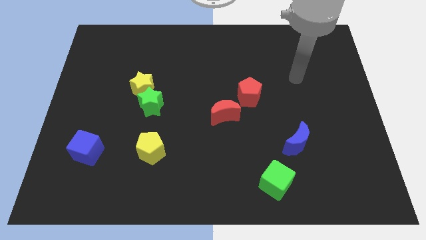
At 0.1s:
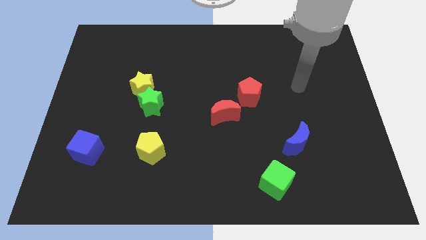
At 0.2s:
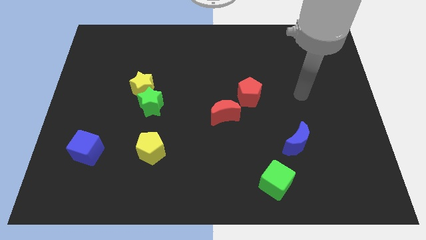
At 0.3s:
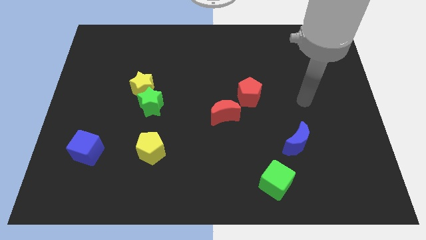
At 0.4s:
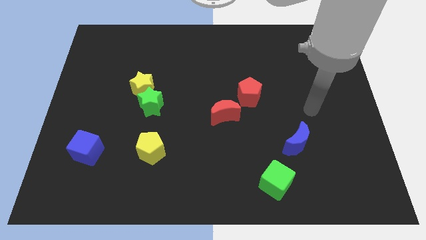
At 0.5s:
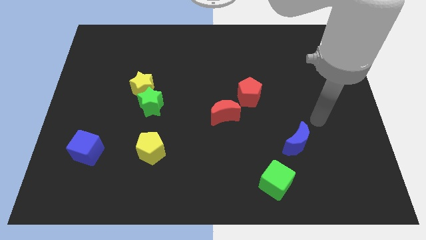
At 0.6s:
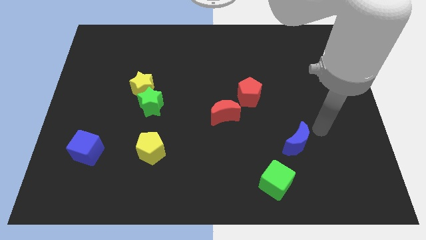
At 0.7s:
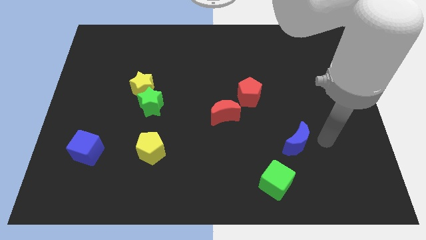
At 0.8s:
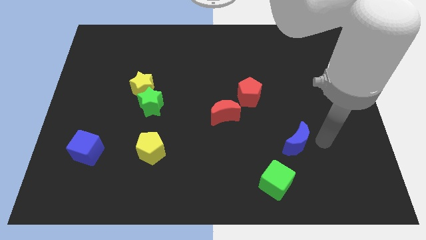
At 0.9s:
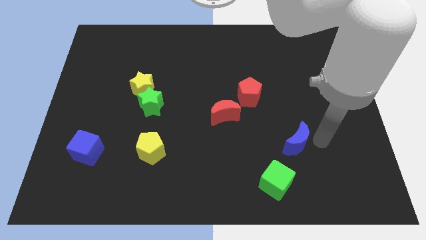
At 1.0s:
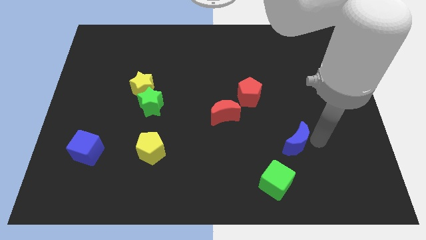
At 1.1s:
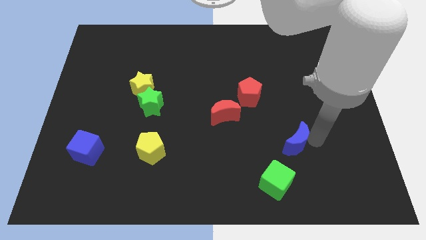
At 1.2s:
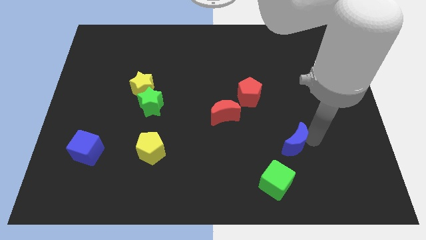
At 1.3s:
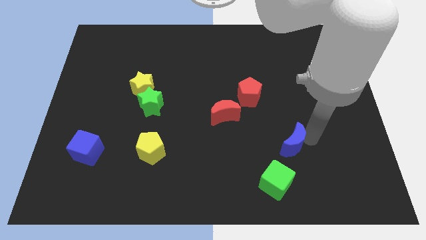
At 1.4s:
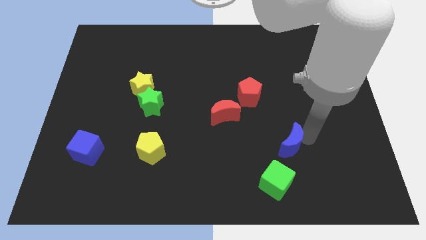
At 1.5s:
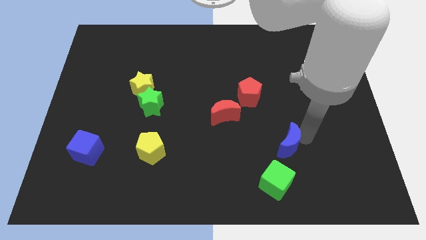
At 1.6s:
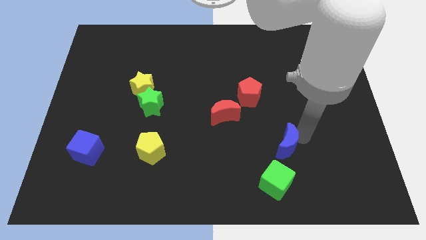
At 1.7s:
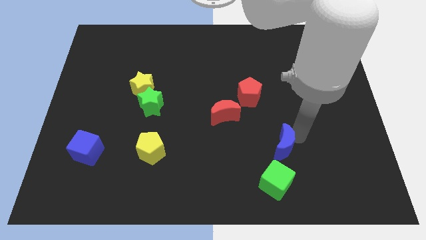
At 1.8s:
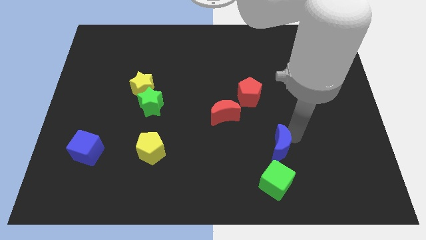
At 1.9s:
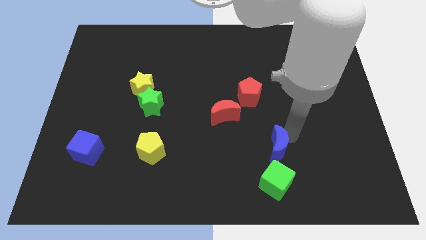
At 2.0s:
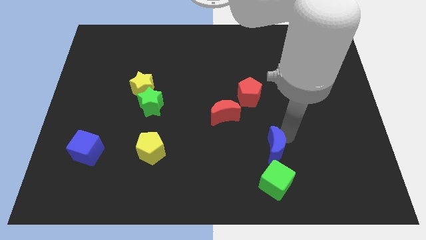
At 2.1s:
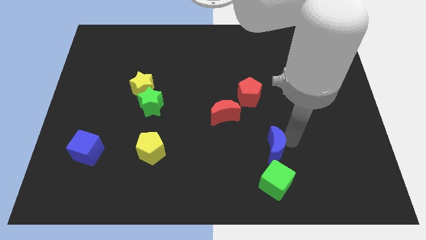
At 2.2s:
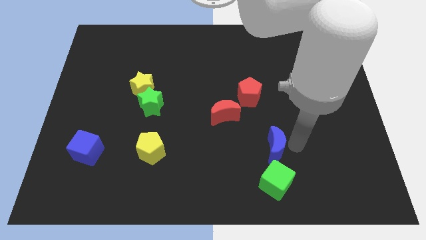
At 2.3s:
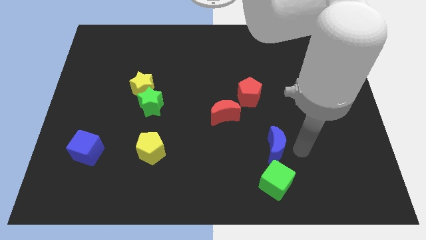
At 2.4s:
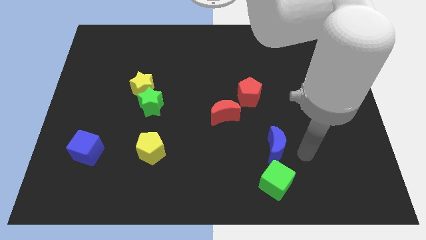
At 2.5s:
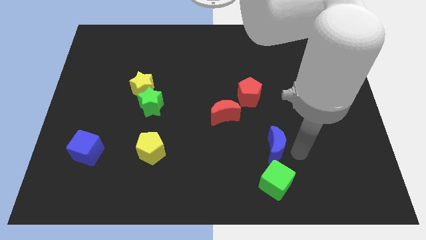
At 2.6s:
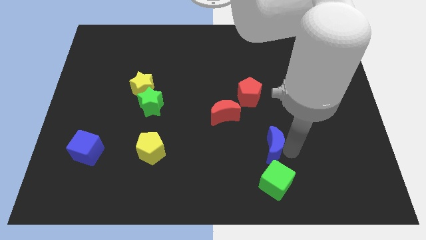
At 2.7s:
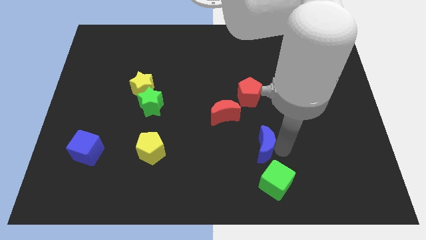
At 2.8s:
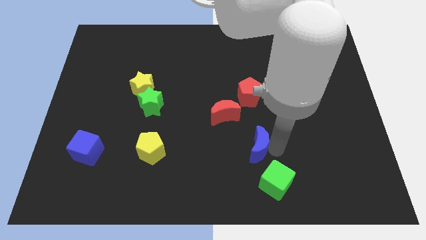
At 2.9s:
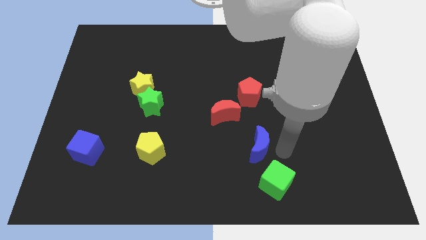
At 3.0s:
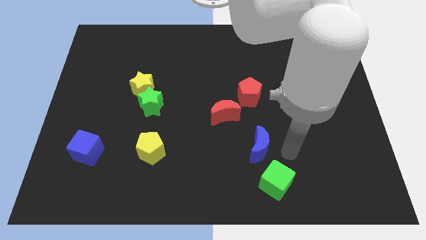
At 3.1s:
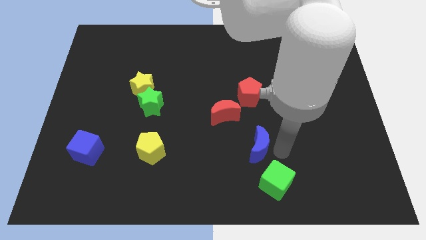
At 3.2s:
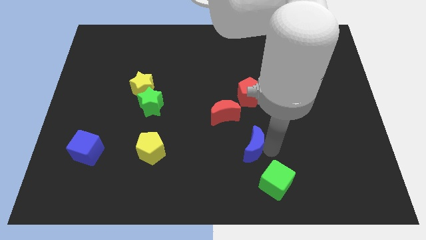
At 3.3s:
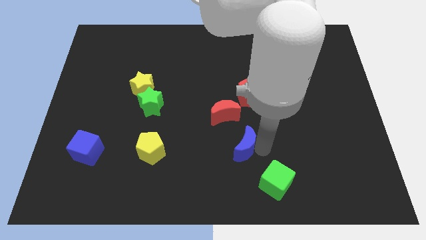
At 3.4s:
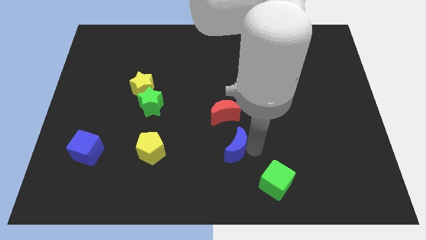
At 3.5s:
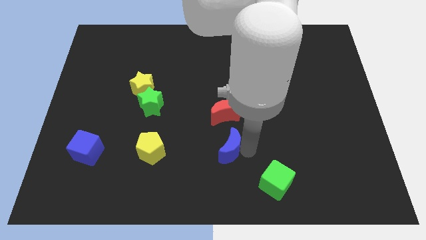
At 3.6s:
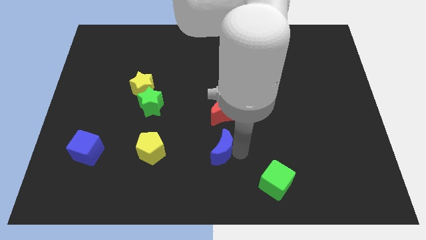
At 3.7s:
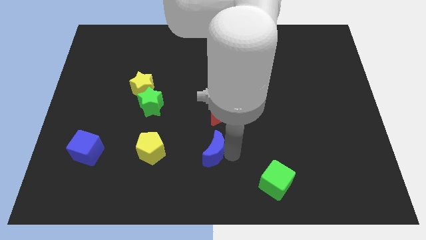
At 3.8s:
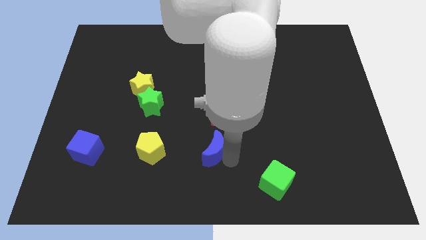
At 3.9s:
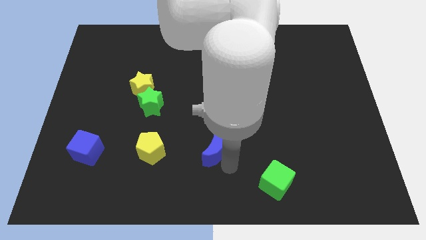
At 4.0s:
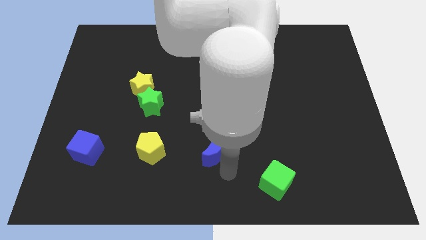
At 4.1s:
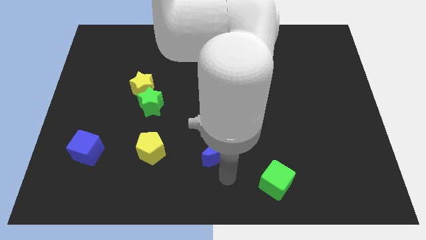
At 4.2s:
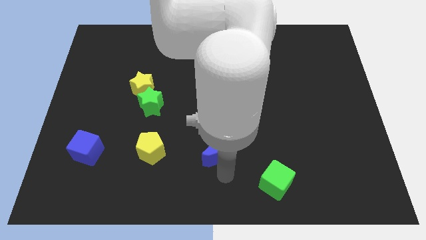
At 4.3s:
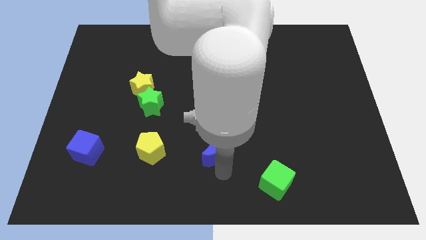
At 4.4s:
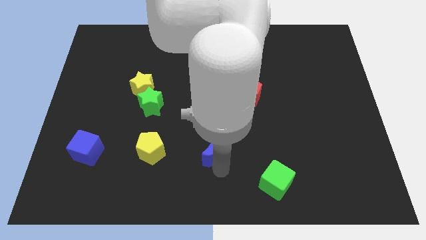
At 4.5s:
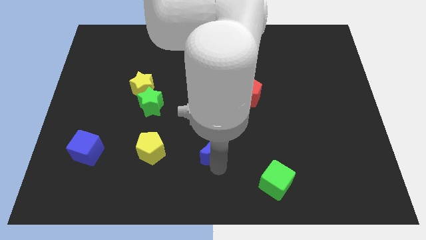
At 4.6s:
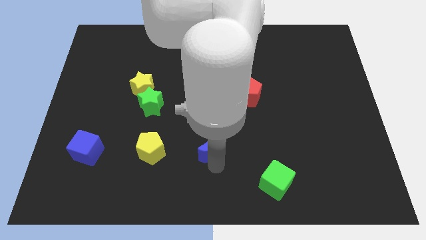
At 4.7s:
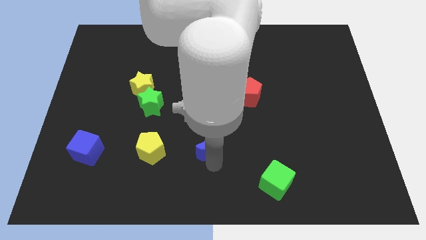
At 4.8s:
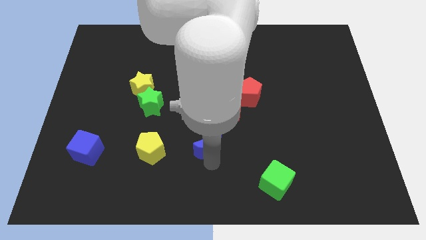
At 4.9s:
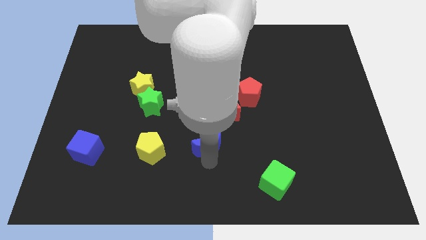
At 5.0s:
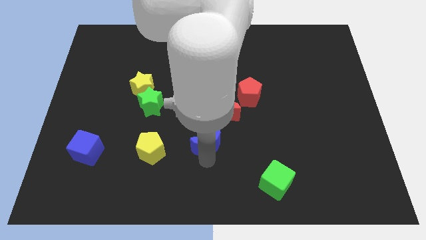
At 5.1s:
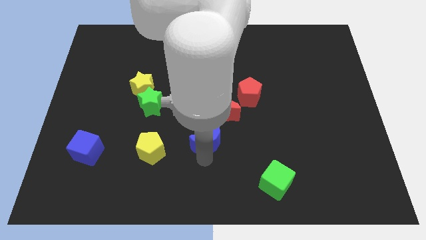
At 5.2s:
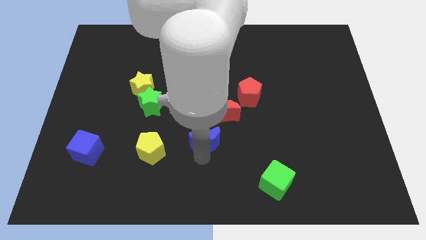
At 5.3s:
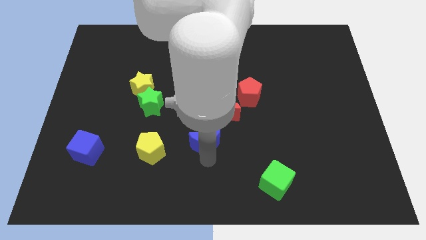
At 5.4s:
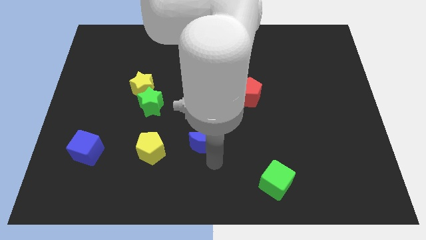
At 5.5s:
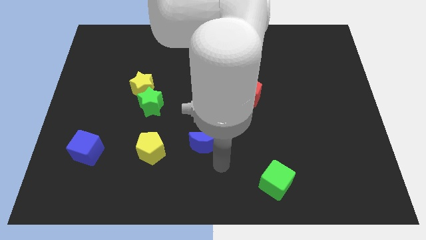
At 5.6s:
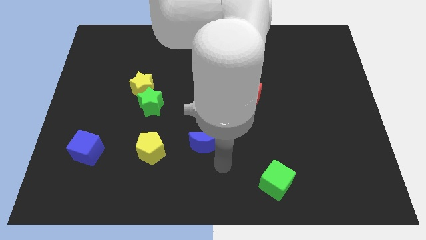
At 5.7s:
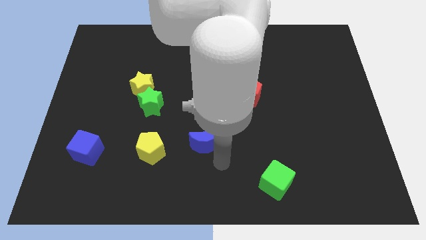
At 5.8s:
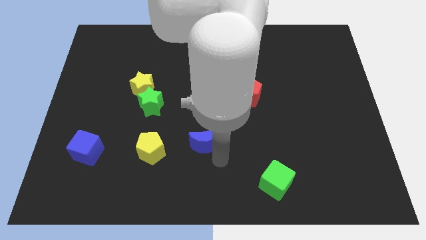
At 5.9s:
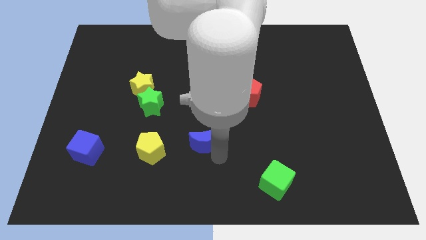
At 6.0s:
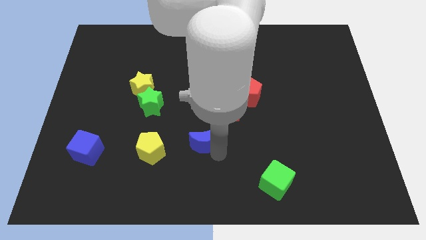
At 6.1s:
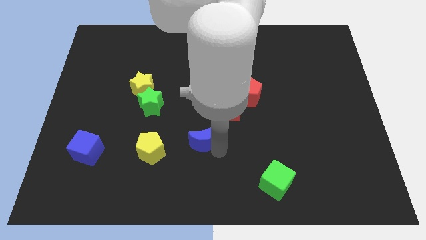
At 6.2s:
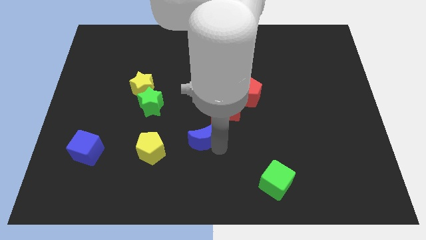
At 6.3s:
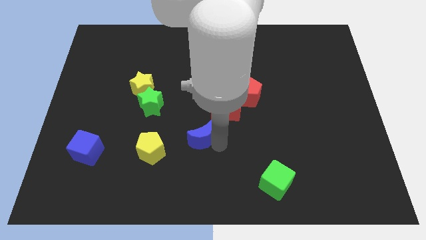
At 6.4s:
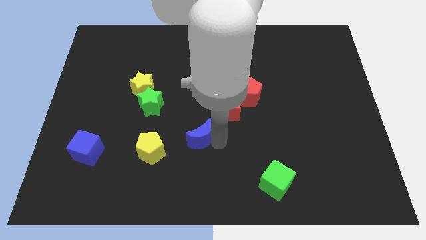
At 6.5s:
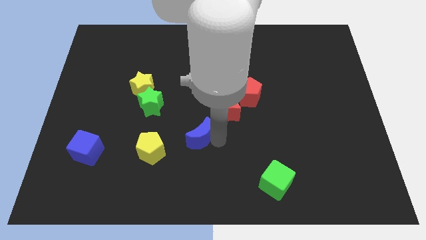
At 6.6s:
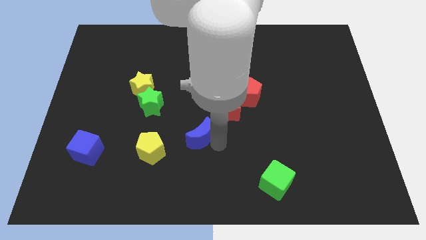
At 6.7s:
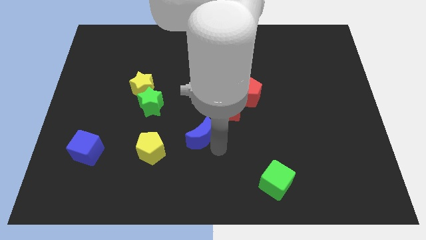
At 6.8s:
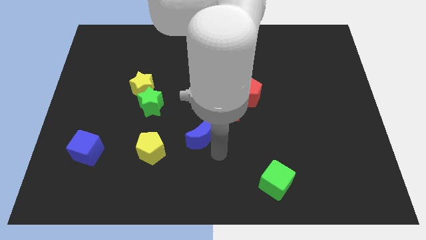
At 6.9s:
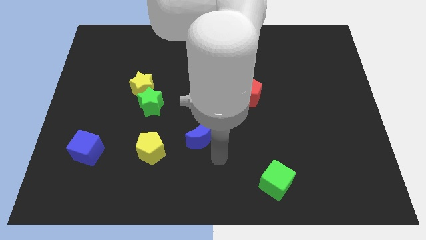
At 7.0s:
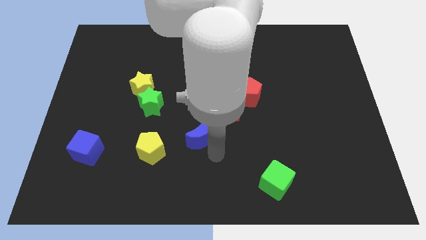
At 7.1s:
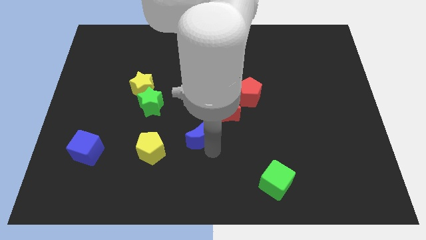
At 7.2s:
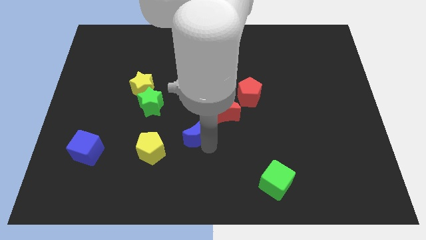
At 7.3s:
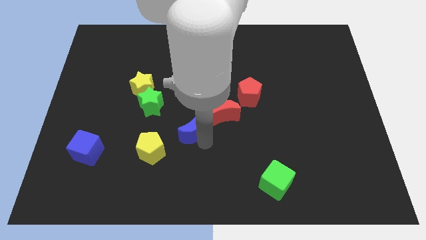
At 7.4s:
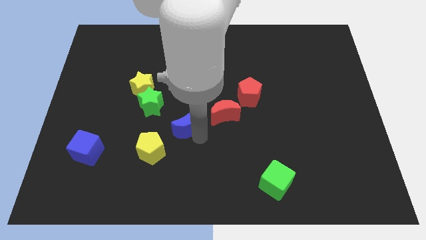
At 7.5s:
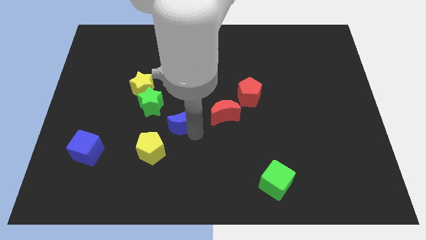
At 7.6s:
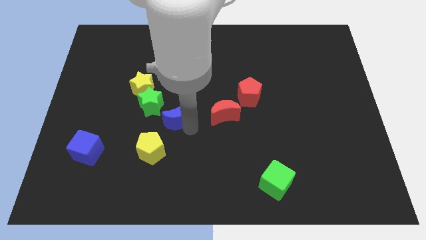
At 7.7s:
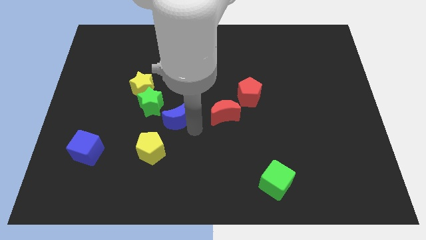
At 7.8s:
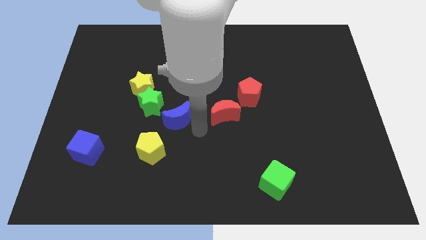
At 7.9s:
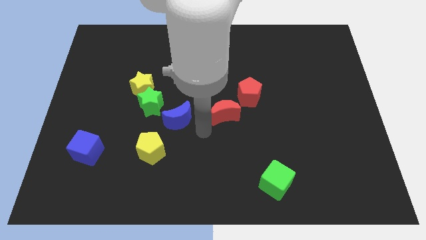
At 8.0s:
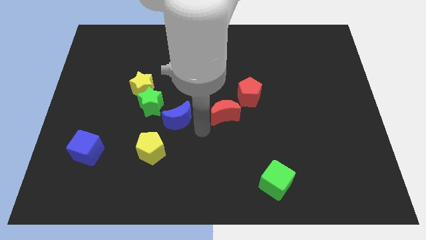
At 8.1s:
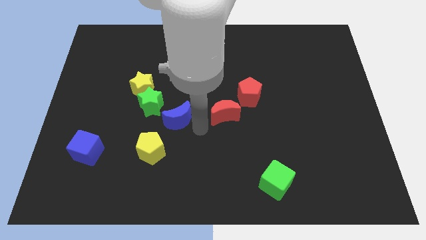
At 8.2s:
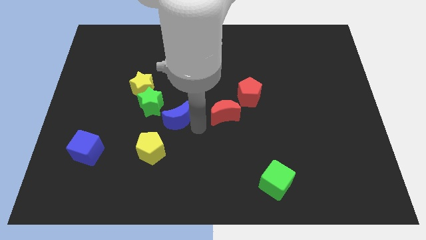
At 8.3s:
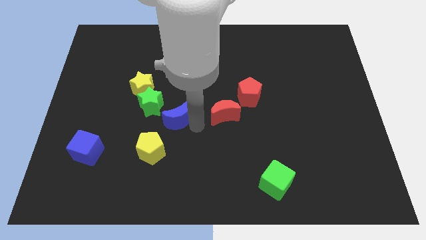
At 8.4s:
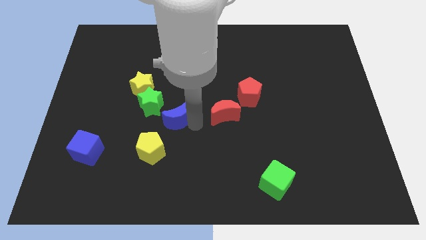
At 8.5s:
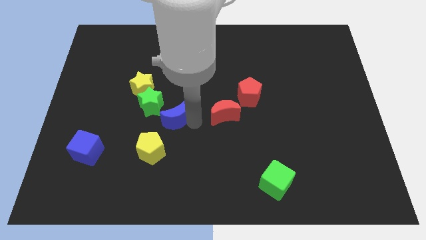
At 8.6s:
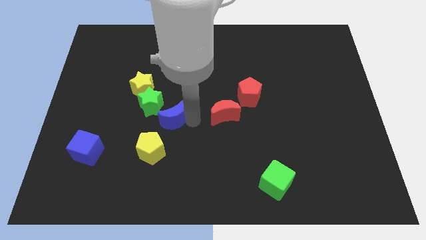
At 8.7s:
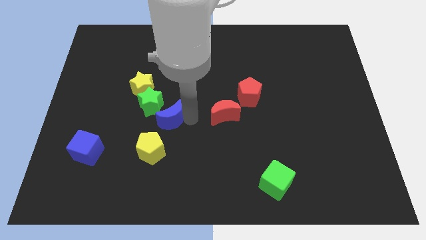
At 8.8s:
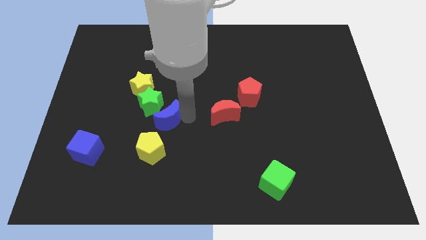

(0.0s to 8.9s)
slide the blue moon towards the green star
